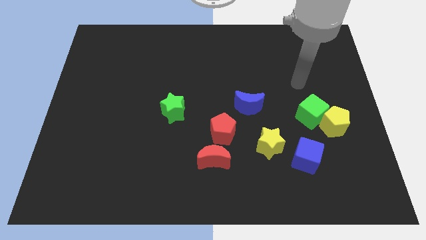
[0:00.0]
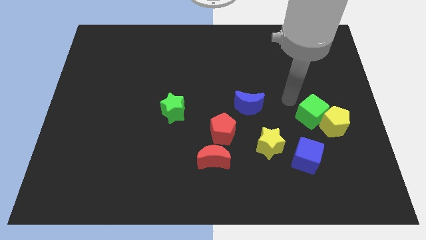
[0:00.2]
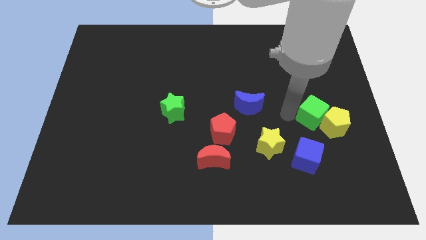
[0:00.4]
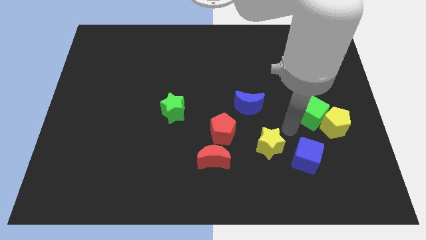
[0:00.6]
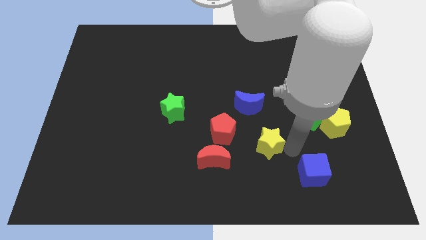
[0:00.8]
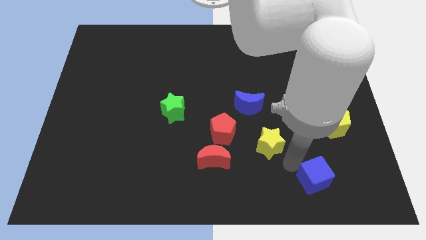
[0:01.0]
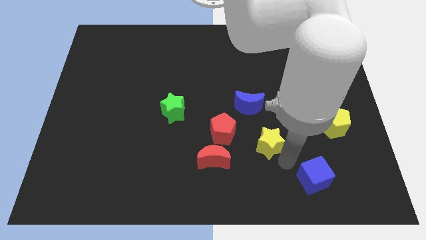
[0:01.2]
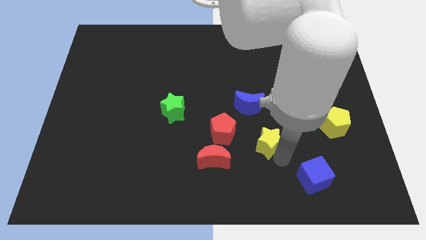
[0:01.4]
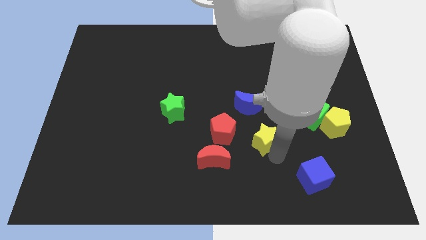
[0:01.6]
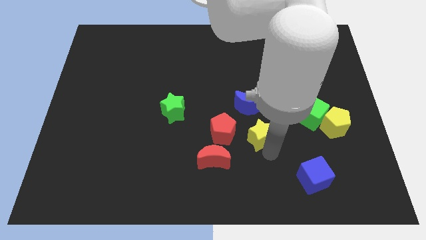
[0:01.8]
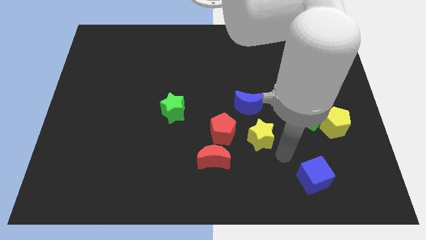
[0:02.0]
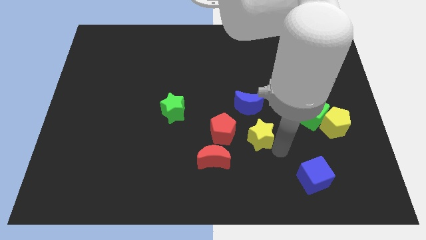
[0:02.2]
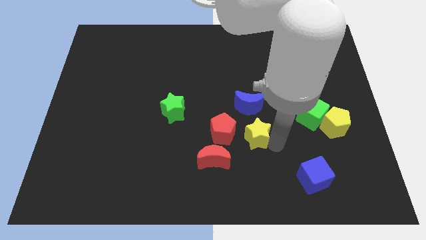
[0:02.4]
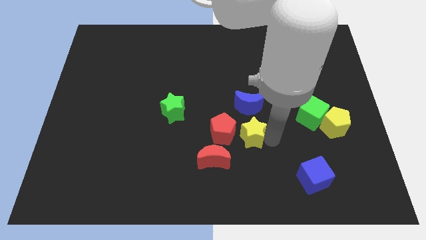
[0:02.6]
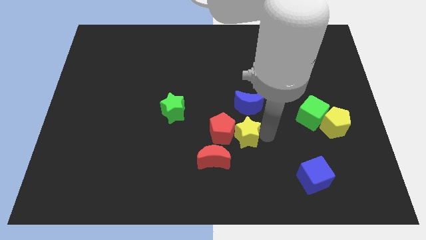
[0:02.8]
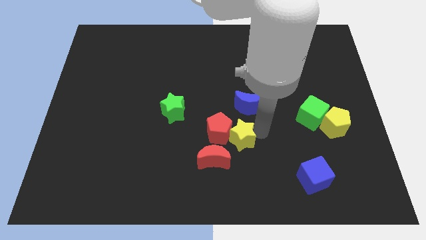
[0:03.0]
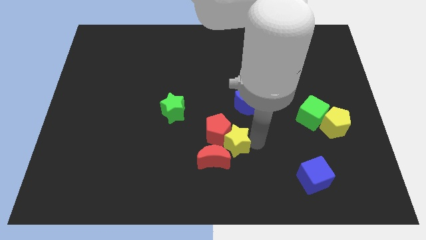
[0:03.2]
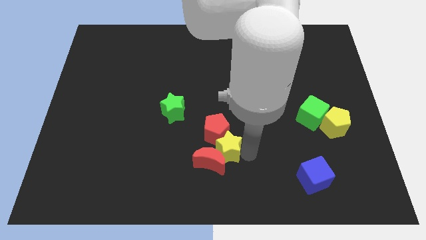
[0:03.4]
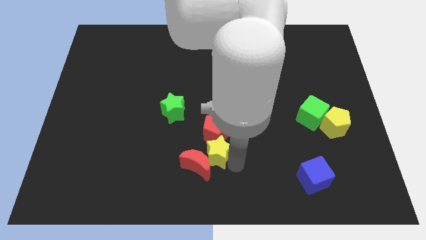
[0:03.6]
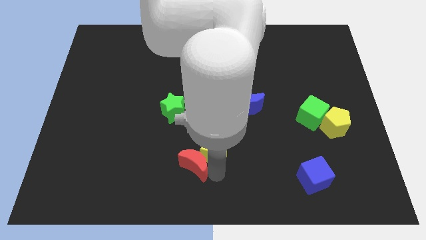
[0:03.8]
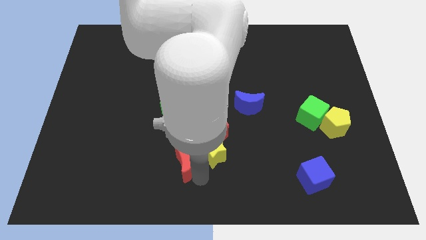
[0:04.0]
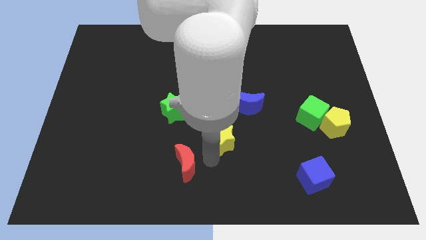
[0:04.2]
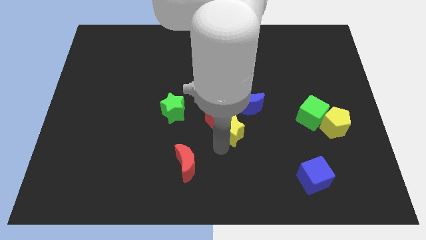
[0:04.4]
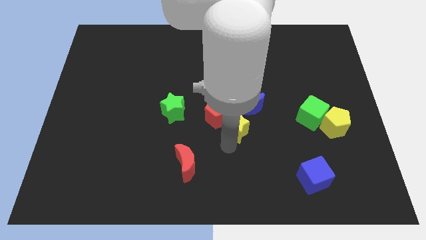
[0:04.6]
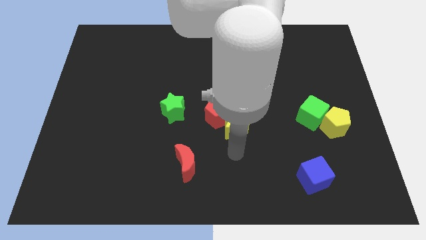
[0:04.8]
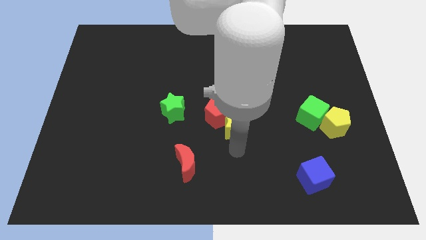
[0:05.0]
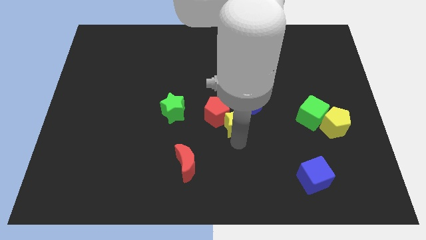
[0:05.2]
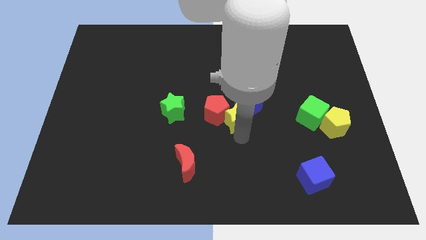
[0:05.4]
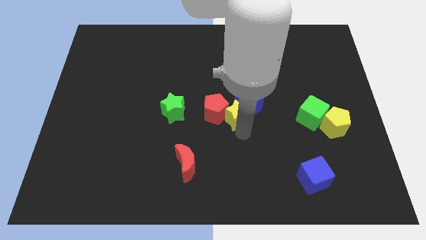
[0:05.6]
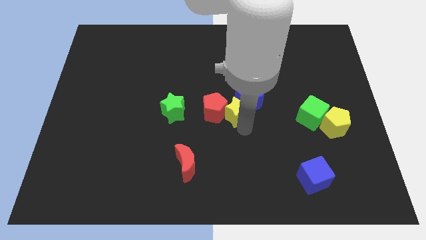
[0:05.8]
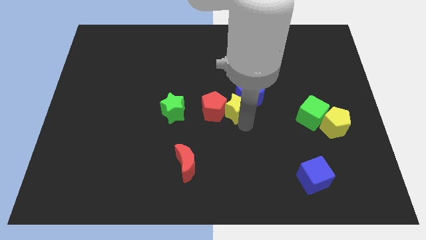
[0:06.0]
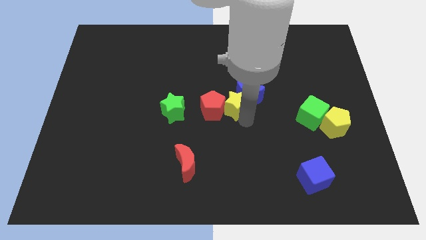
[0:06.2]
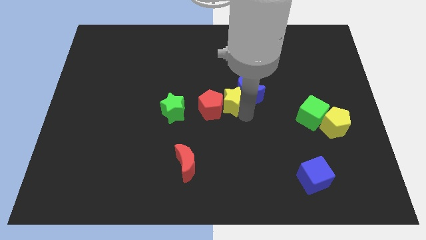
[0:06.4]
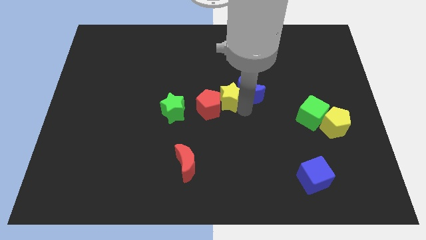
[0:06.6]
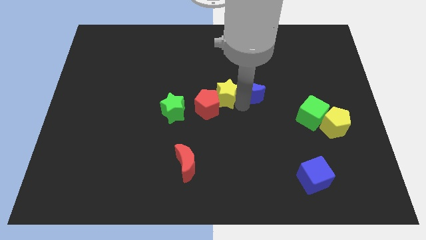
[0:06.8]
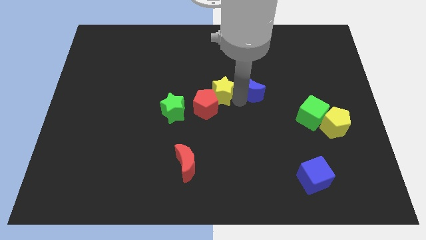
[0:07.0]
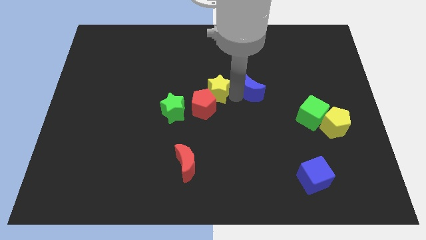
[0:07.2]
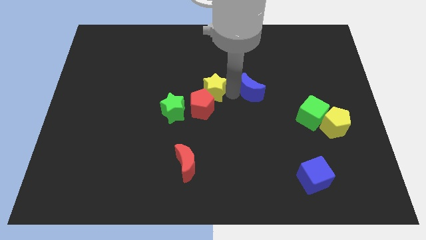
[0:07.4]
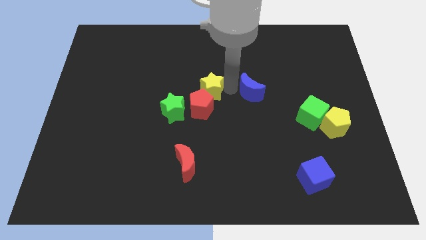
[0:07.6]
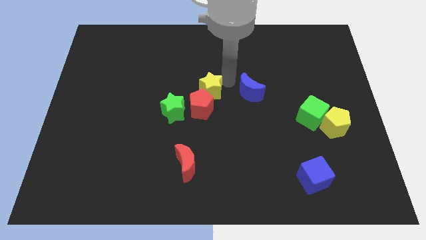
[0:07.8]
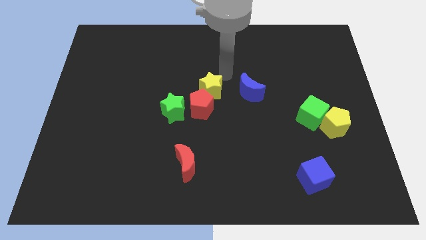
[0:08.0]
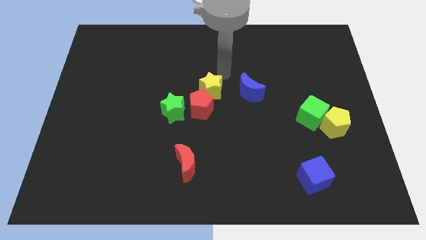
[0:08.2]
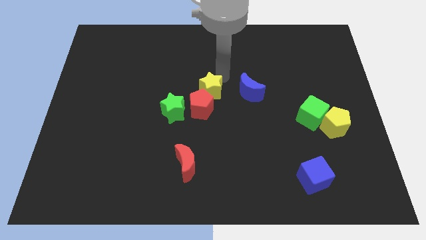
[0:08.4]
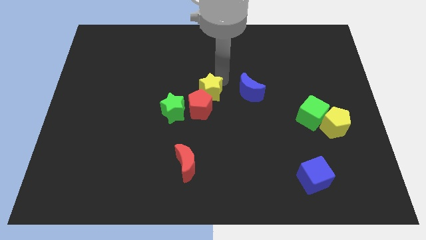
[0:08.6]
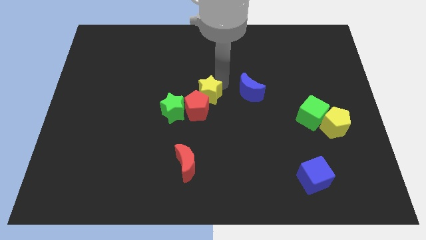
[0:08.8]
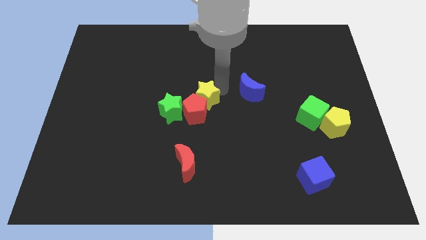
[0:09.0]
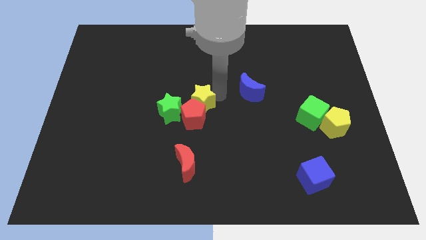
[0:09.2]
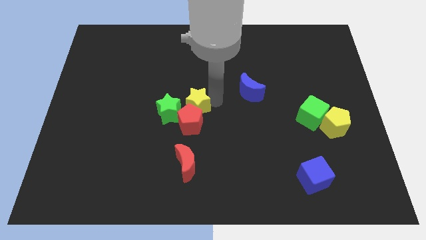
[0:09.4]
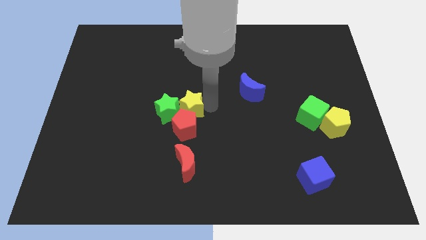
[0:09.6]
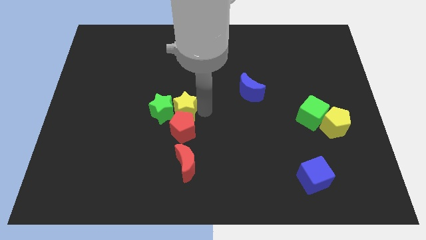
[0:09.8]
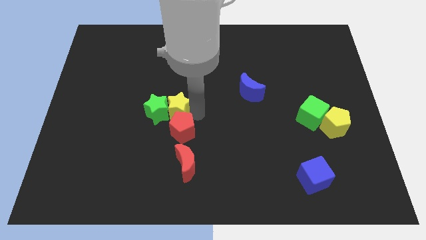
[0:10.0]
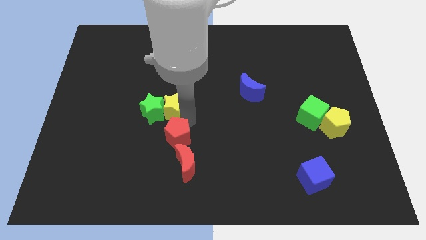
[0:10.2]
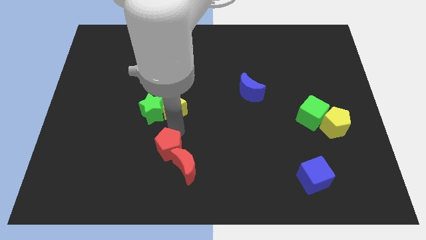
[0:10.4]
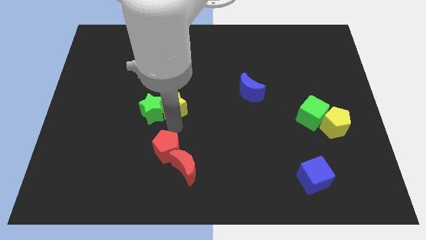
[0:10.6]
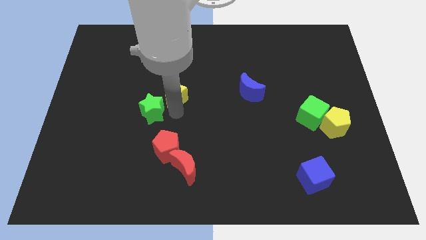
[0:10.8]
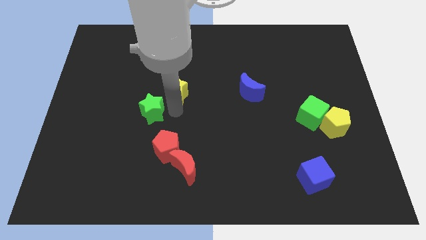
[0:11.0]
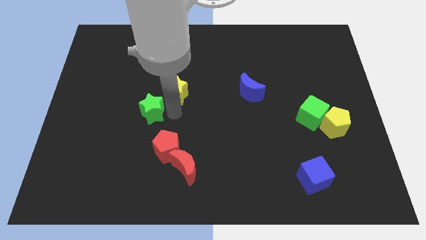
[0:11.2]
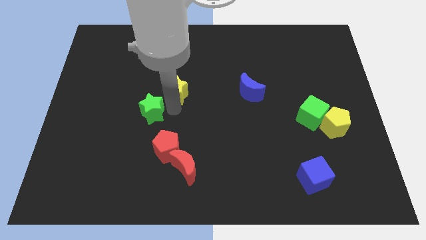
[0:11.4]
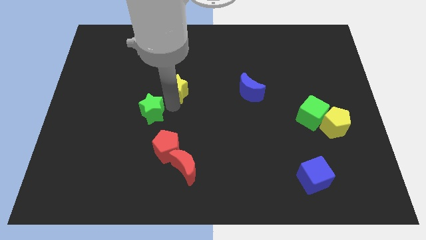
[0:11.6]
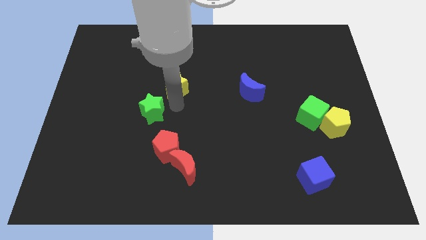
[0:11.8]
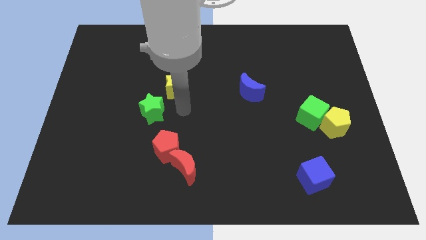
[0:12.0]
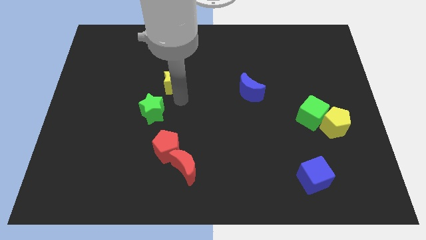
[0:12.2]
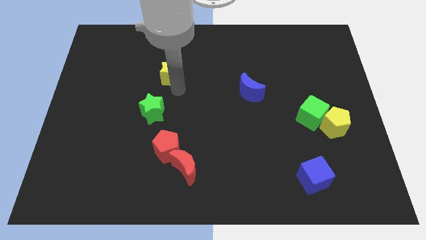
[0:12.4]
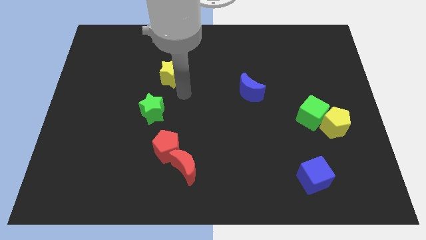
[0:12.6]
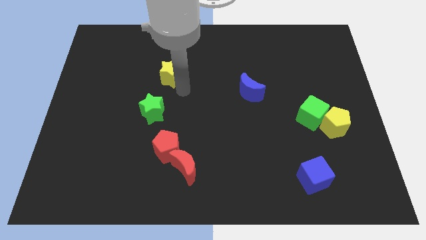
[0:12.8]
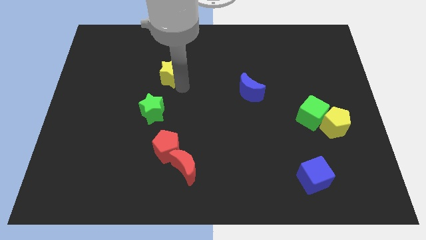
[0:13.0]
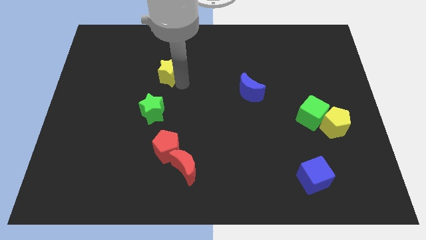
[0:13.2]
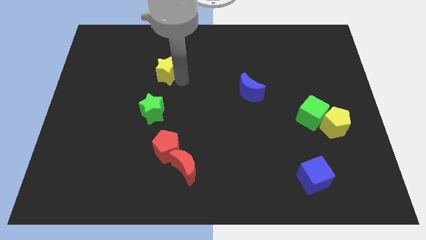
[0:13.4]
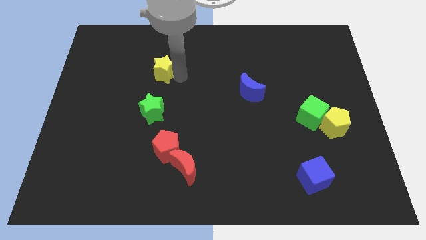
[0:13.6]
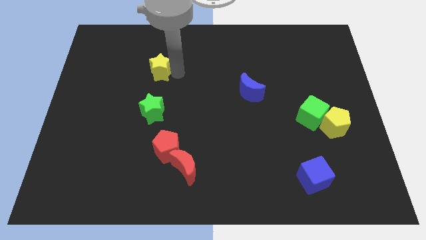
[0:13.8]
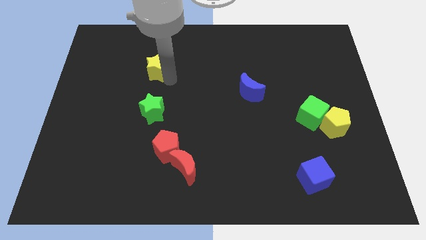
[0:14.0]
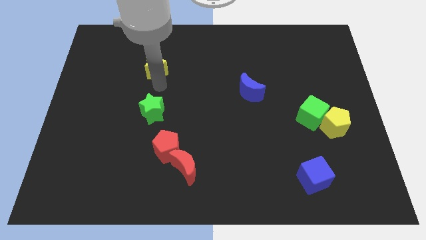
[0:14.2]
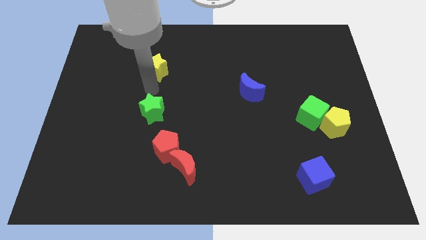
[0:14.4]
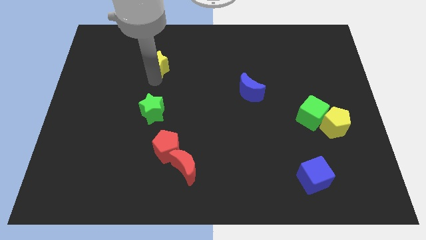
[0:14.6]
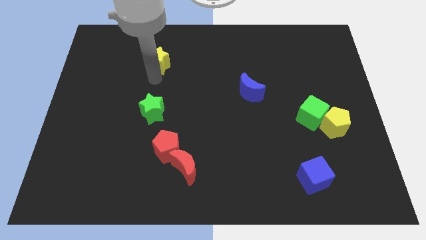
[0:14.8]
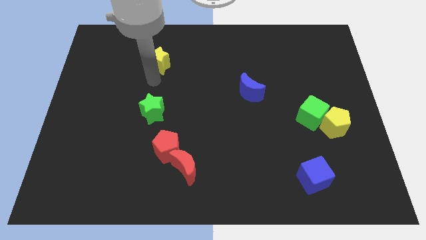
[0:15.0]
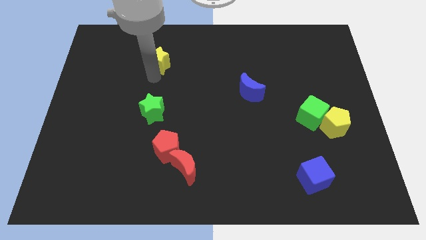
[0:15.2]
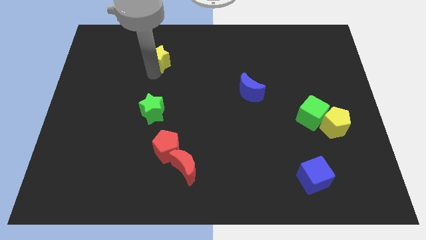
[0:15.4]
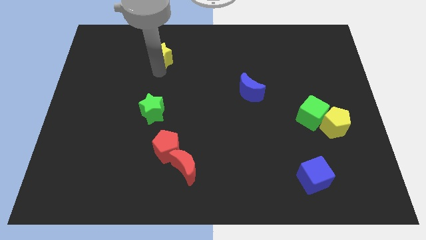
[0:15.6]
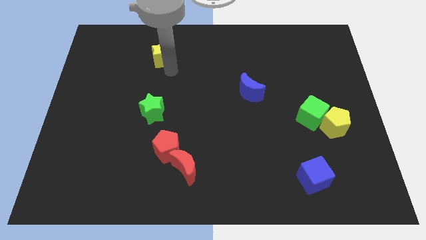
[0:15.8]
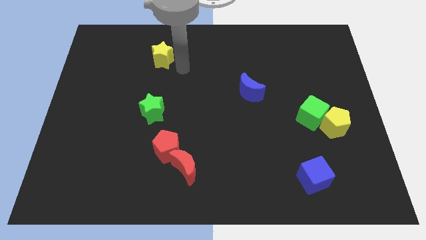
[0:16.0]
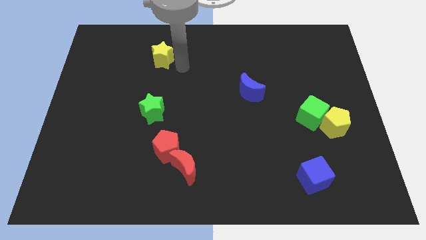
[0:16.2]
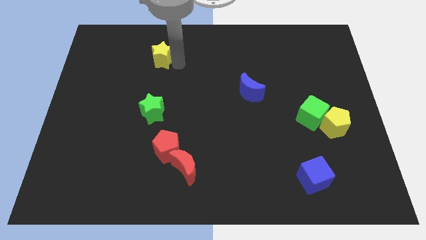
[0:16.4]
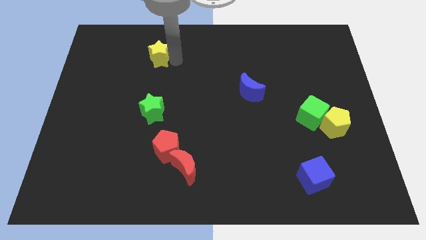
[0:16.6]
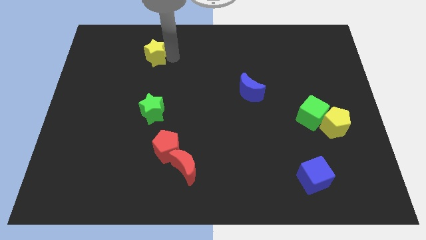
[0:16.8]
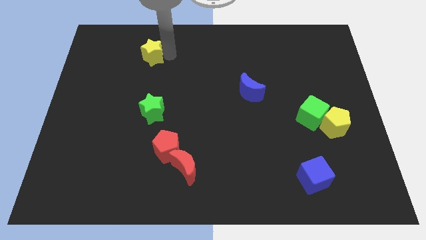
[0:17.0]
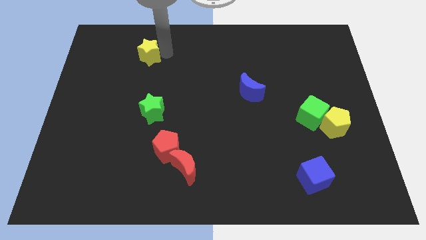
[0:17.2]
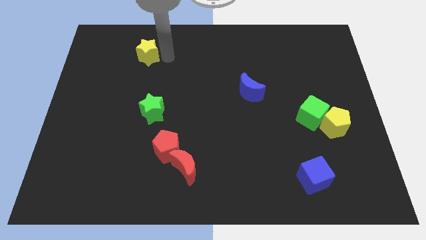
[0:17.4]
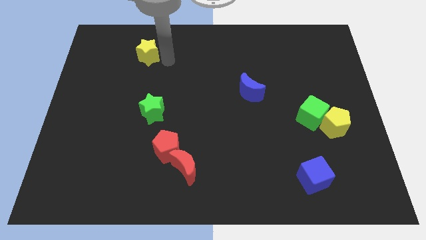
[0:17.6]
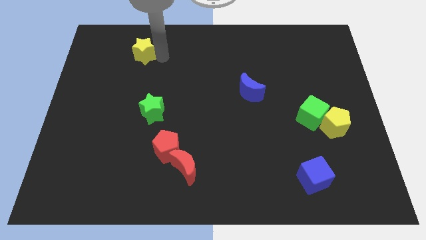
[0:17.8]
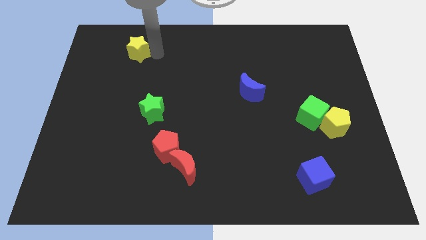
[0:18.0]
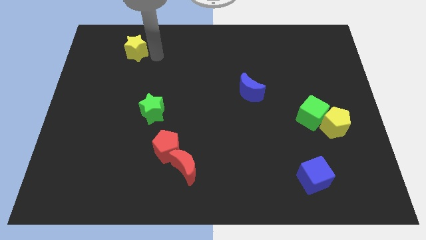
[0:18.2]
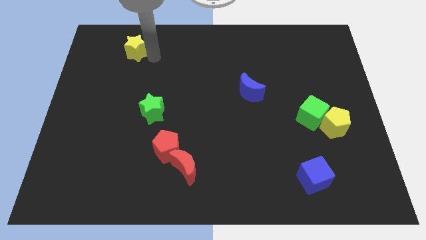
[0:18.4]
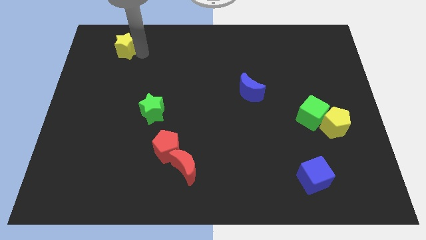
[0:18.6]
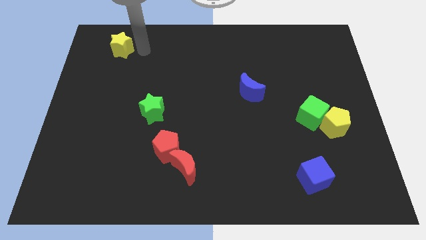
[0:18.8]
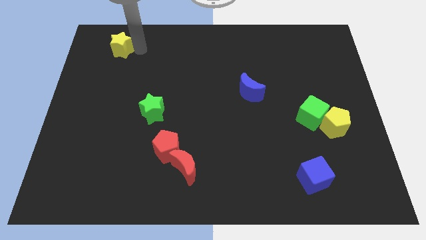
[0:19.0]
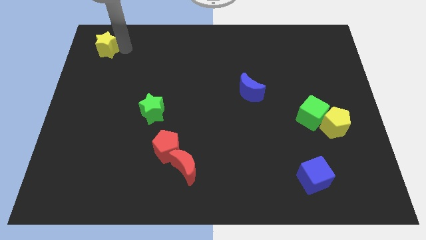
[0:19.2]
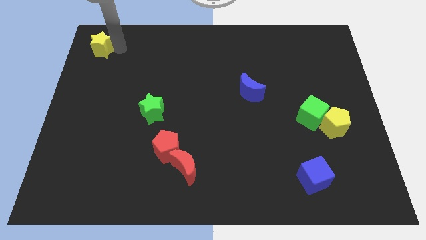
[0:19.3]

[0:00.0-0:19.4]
push the yellow star to the top left of the board
